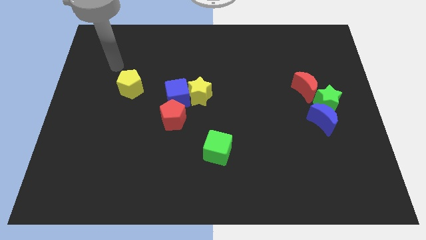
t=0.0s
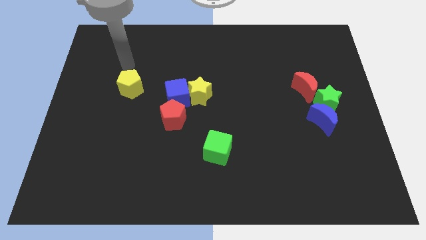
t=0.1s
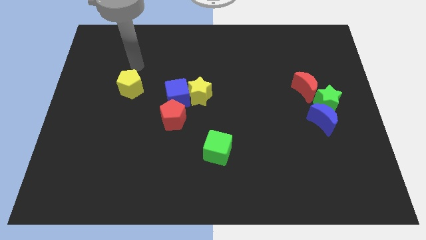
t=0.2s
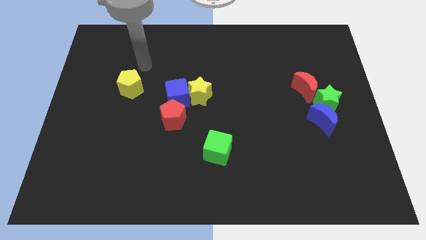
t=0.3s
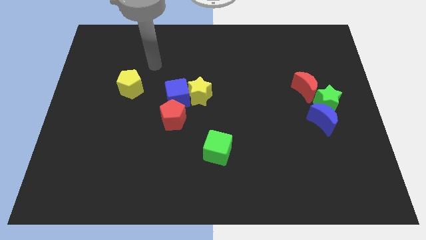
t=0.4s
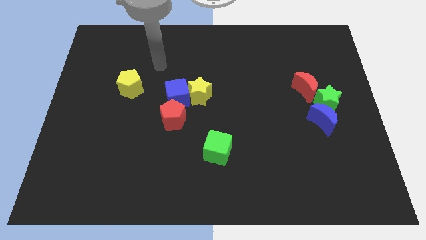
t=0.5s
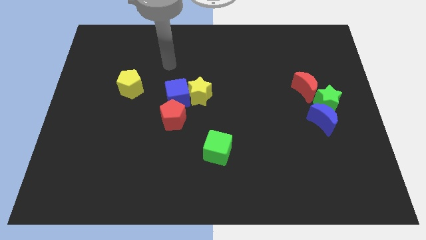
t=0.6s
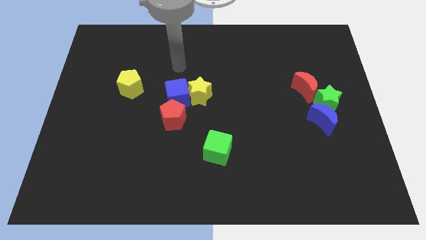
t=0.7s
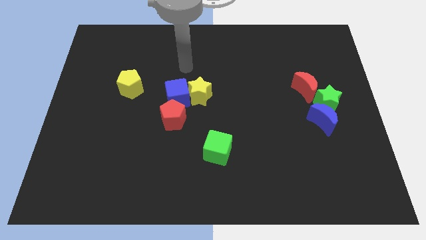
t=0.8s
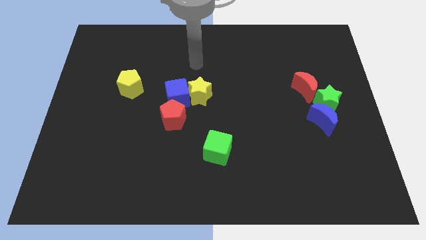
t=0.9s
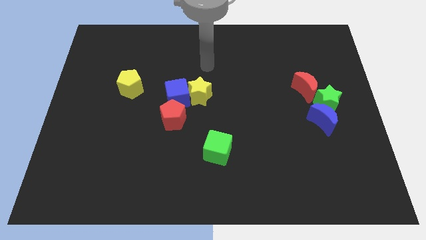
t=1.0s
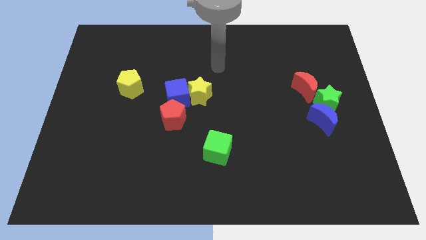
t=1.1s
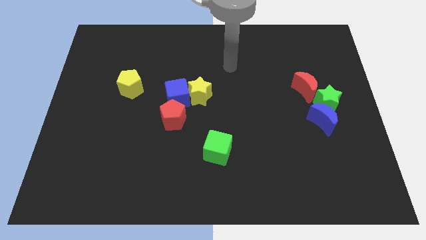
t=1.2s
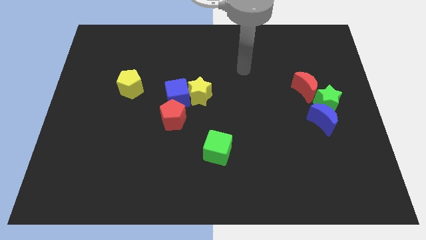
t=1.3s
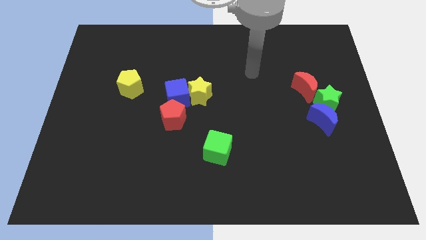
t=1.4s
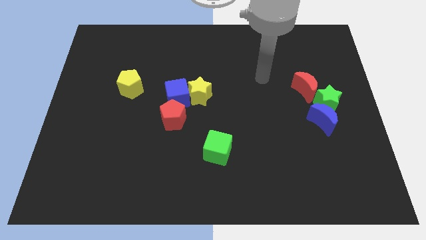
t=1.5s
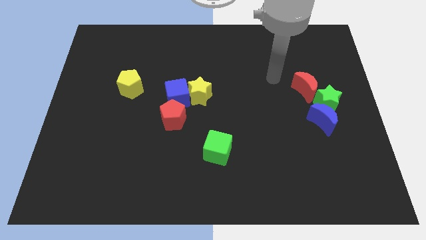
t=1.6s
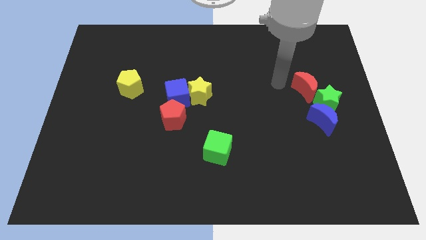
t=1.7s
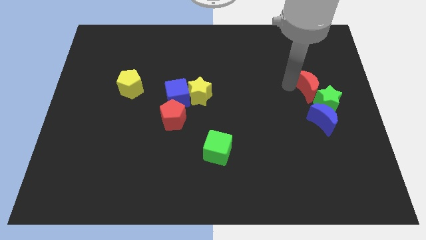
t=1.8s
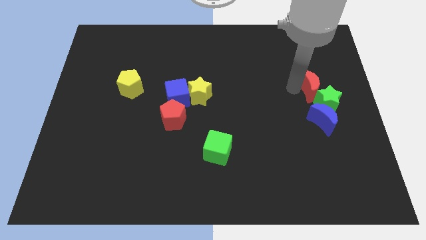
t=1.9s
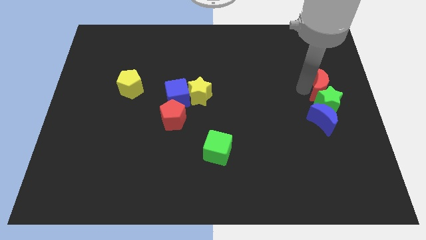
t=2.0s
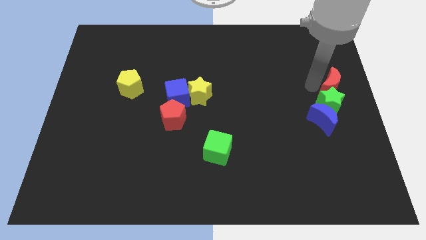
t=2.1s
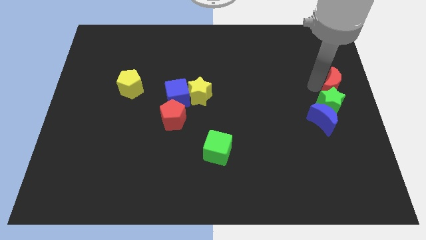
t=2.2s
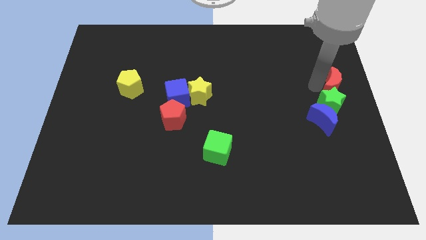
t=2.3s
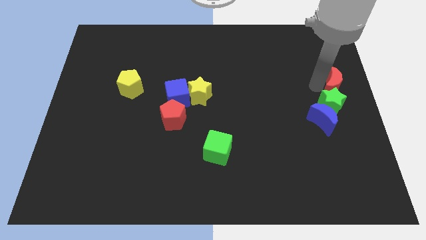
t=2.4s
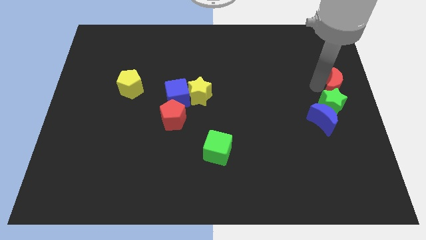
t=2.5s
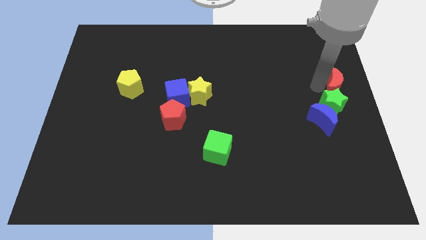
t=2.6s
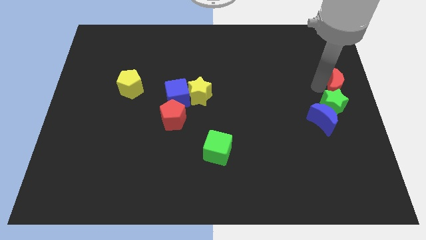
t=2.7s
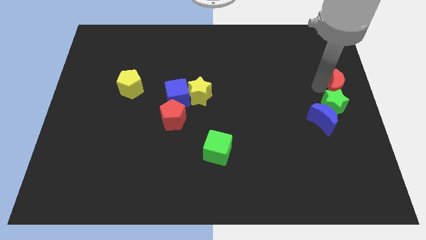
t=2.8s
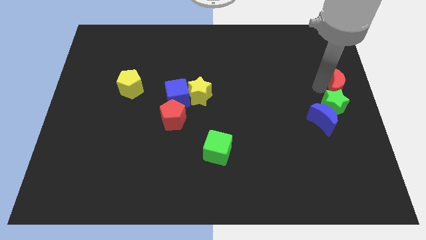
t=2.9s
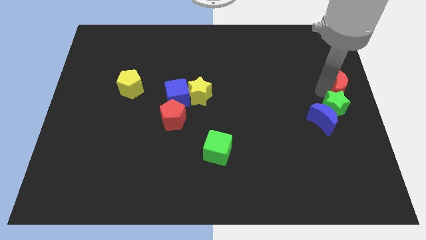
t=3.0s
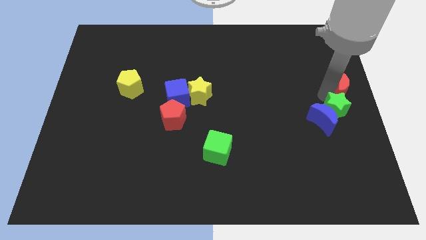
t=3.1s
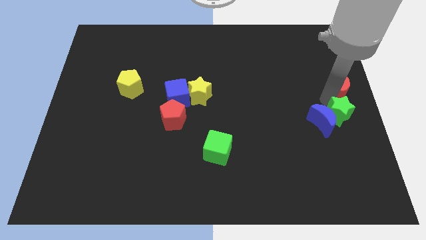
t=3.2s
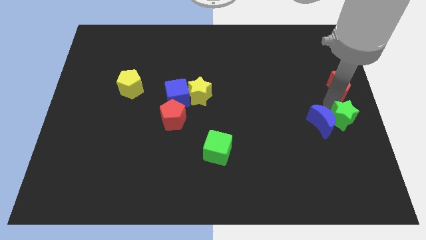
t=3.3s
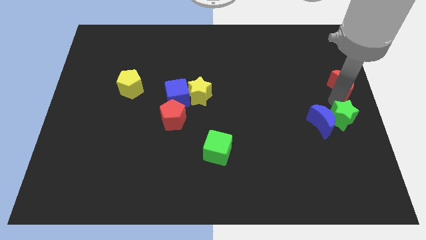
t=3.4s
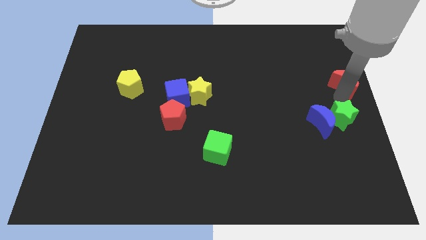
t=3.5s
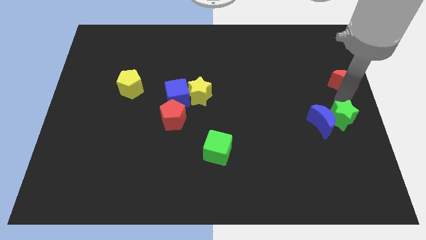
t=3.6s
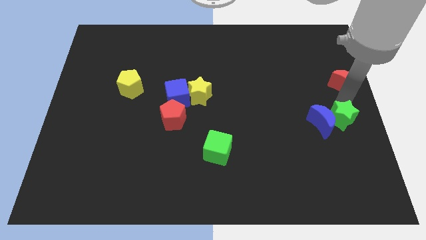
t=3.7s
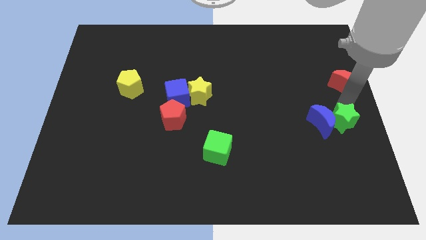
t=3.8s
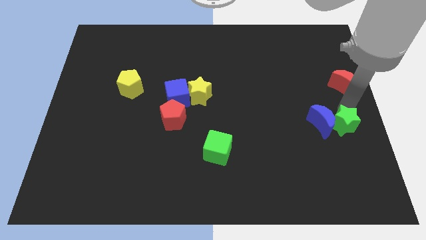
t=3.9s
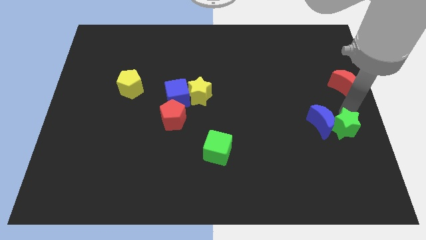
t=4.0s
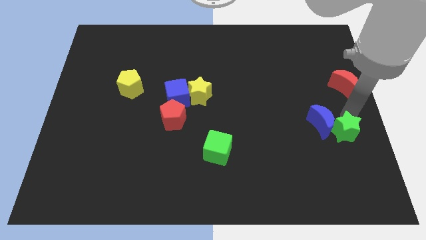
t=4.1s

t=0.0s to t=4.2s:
slightly slide the green star down

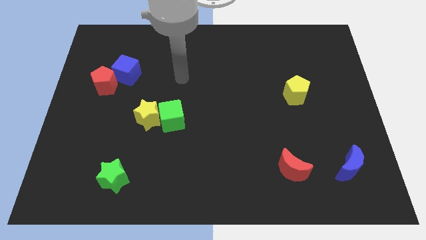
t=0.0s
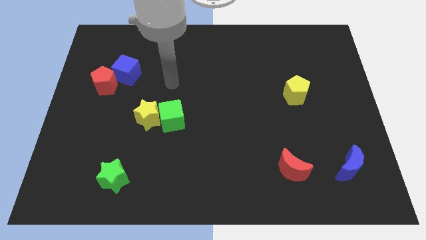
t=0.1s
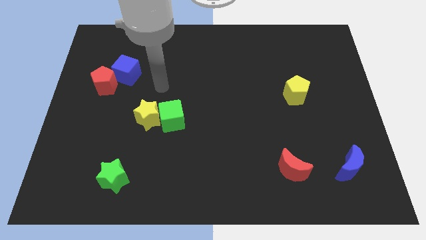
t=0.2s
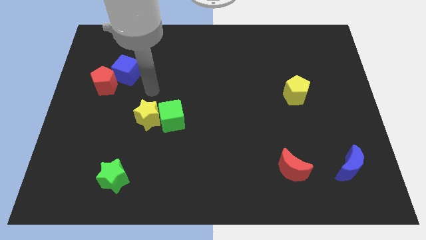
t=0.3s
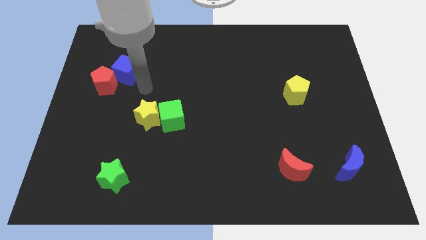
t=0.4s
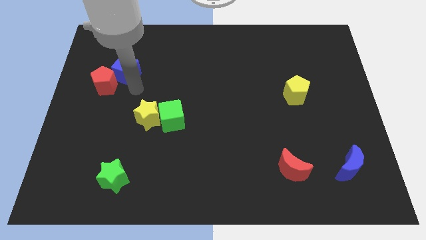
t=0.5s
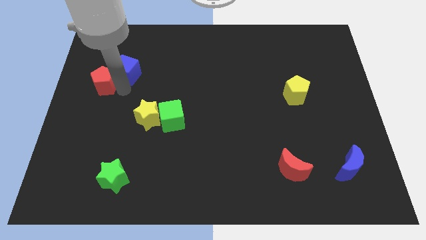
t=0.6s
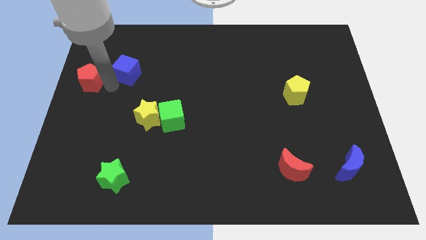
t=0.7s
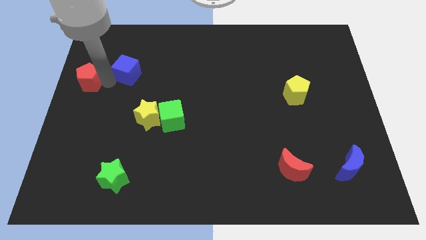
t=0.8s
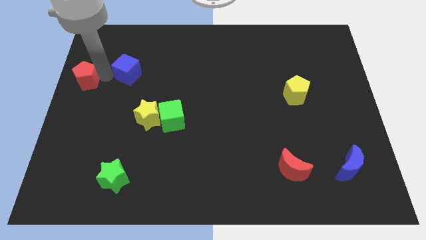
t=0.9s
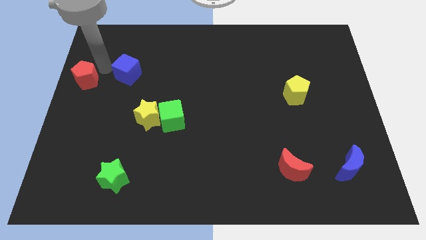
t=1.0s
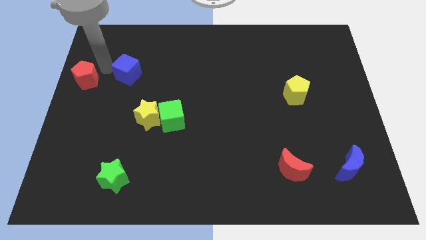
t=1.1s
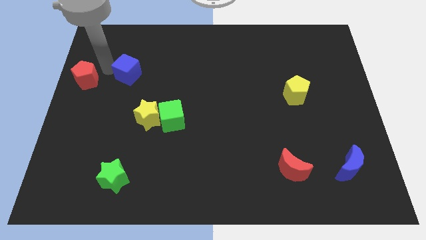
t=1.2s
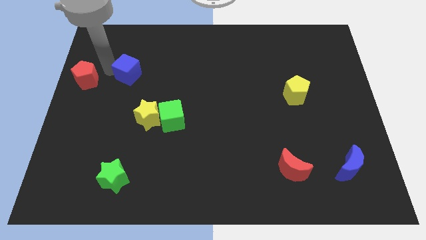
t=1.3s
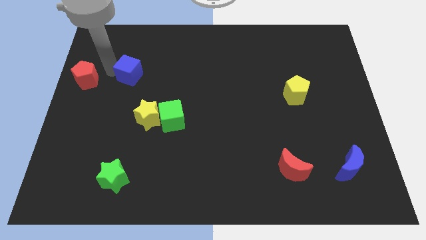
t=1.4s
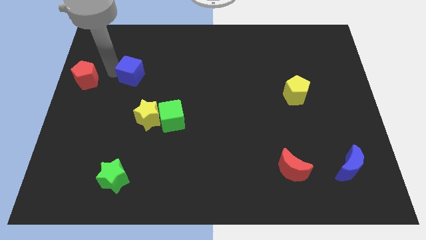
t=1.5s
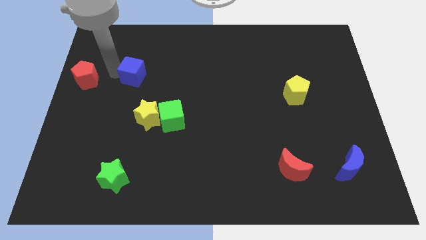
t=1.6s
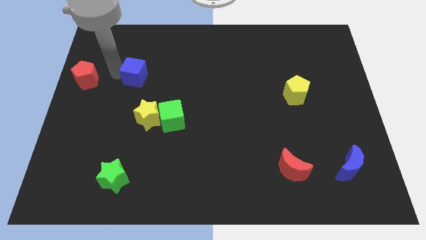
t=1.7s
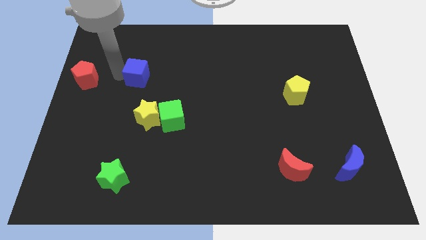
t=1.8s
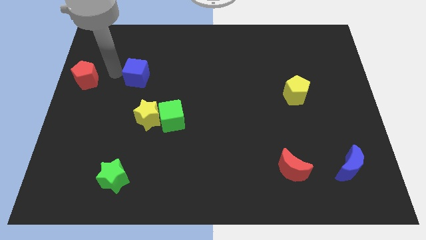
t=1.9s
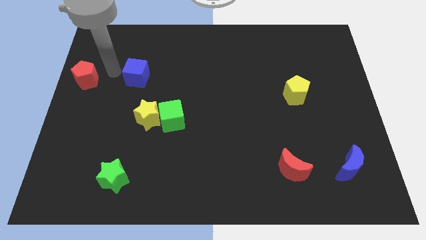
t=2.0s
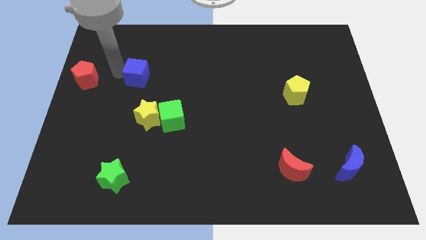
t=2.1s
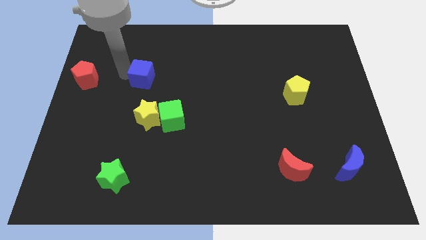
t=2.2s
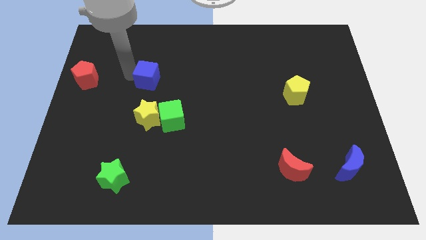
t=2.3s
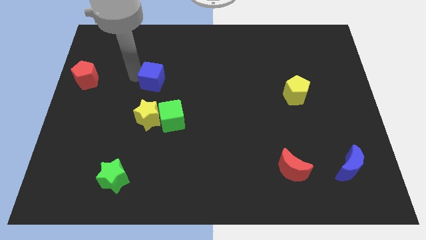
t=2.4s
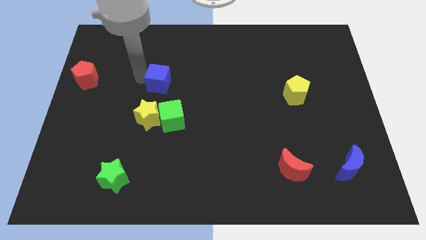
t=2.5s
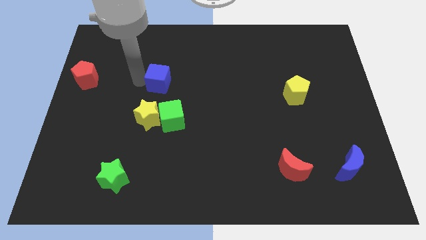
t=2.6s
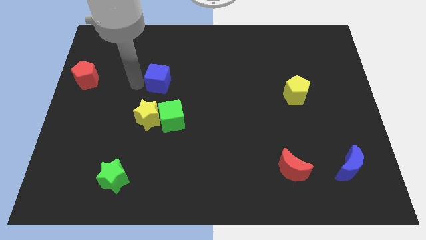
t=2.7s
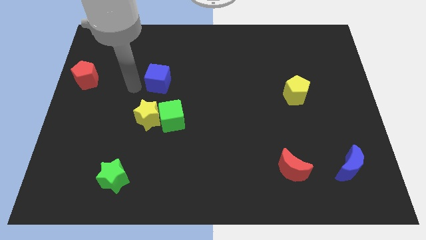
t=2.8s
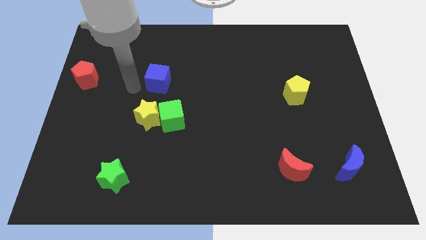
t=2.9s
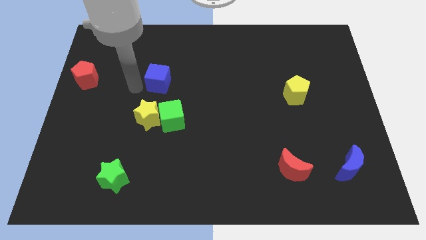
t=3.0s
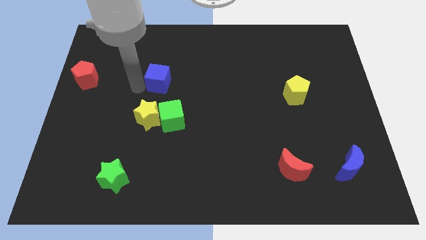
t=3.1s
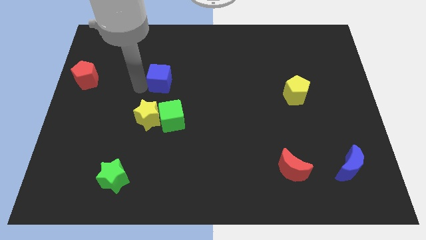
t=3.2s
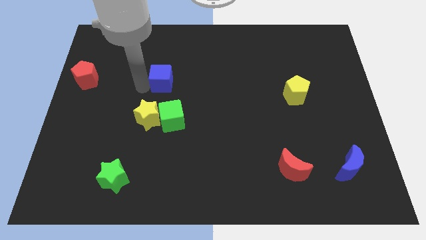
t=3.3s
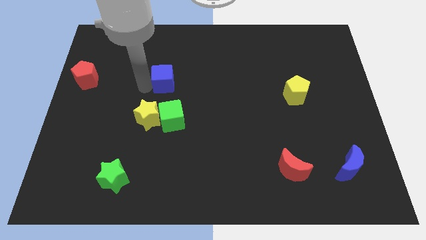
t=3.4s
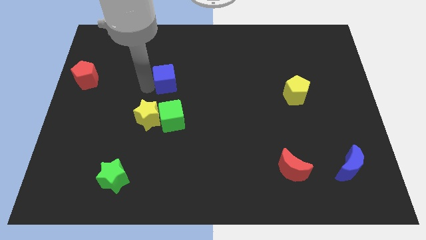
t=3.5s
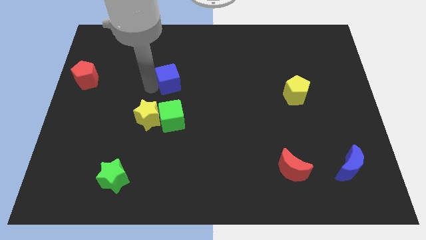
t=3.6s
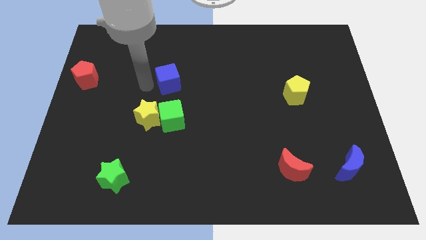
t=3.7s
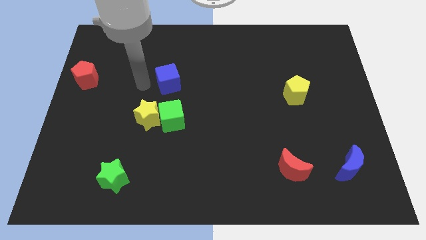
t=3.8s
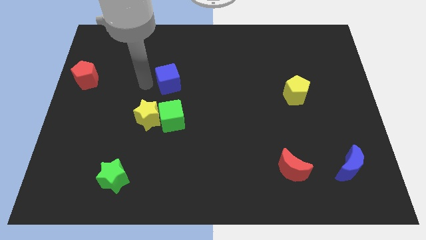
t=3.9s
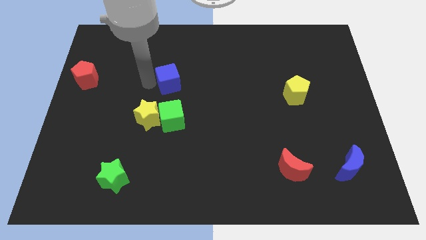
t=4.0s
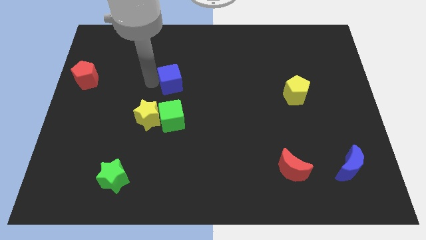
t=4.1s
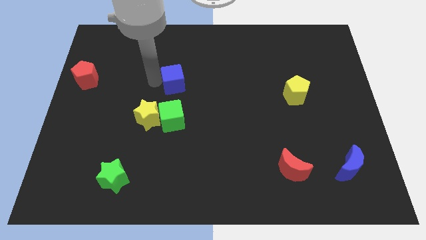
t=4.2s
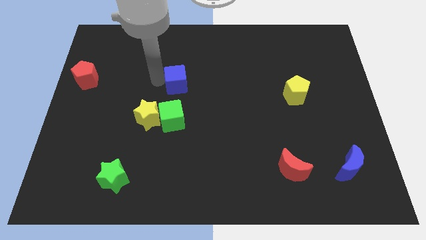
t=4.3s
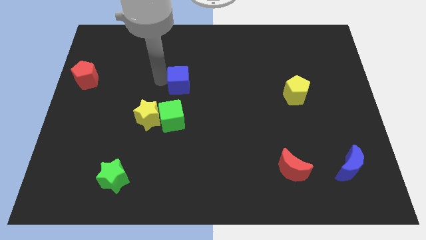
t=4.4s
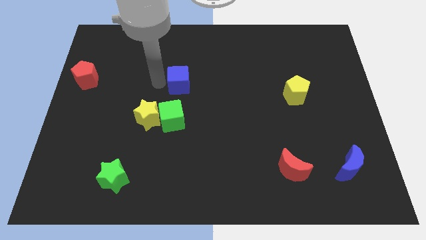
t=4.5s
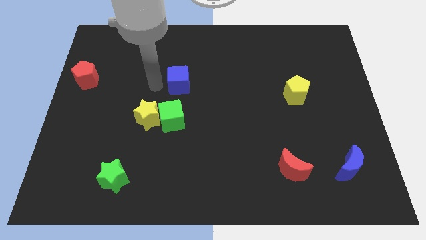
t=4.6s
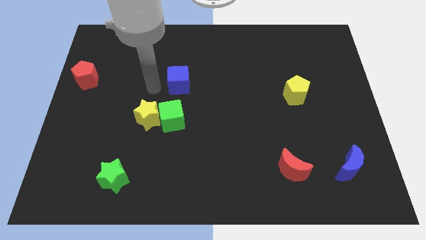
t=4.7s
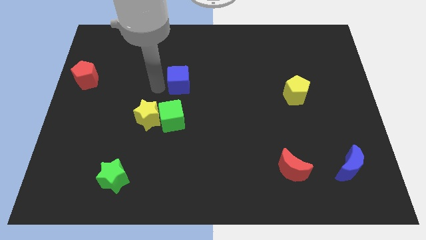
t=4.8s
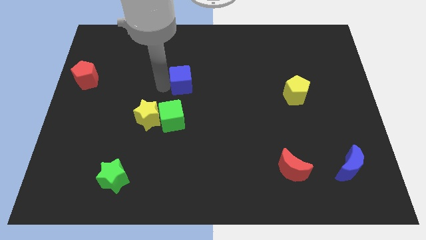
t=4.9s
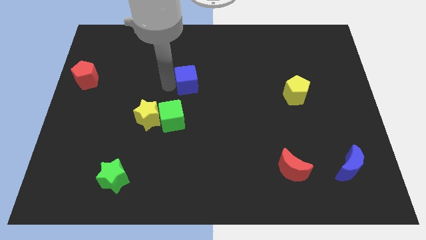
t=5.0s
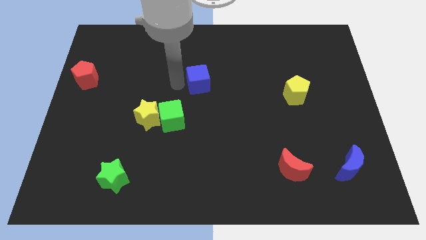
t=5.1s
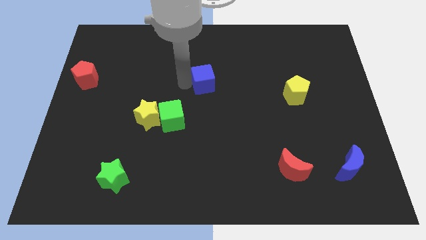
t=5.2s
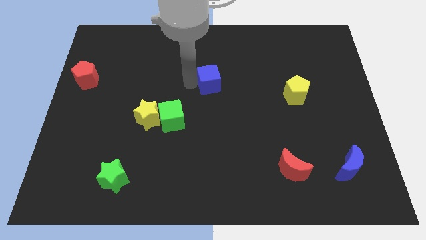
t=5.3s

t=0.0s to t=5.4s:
push the blue cube right
